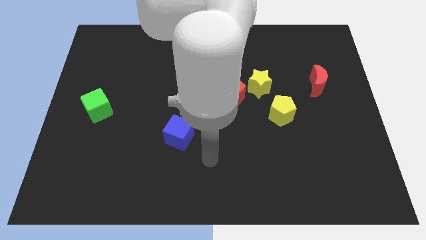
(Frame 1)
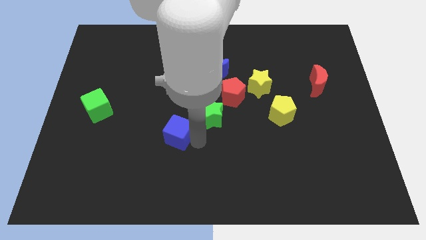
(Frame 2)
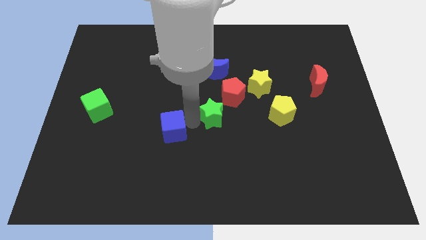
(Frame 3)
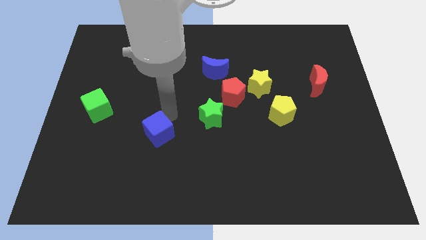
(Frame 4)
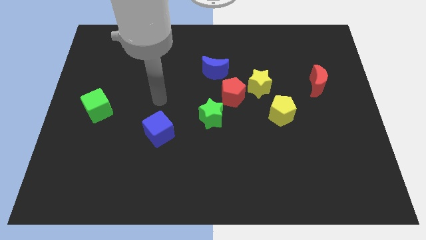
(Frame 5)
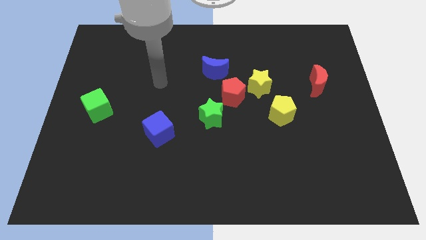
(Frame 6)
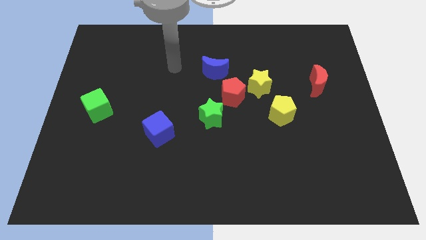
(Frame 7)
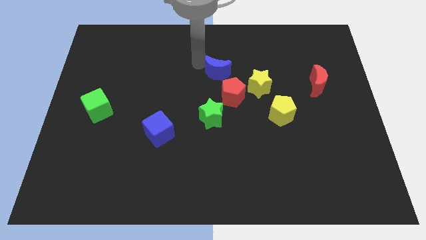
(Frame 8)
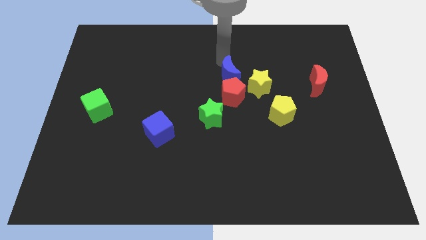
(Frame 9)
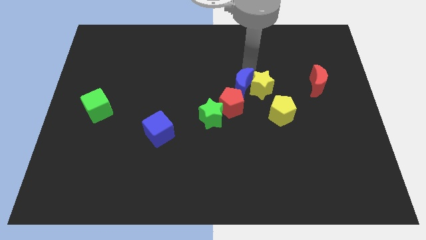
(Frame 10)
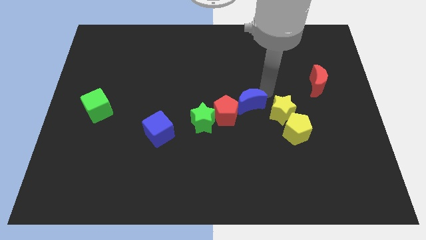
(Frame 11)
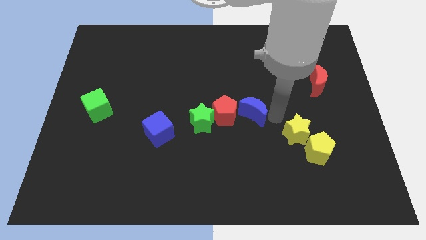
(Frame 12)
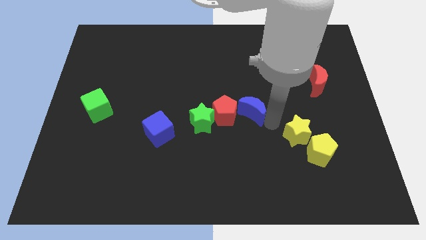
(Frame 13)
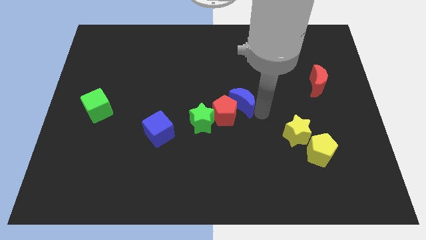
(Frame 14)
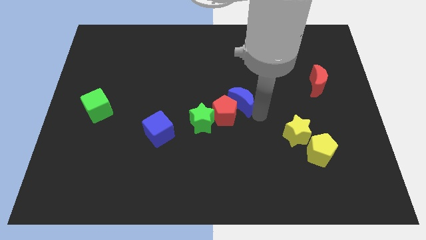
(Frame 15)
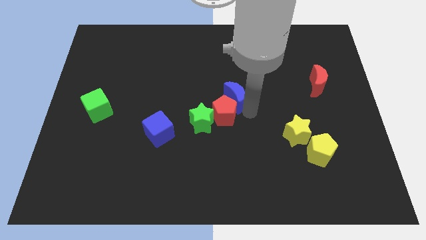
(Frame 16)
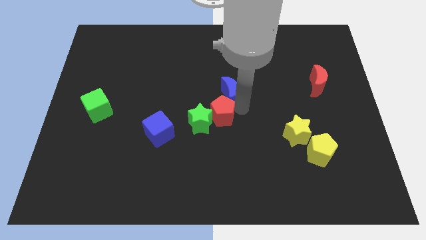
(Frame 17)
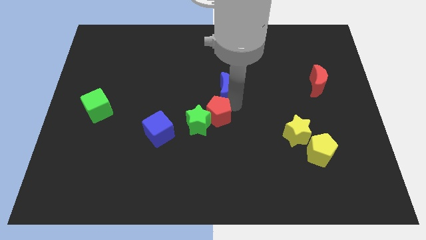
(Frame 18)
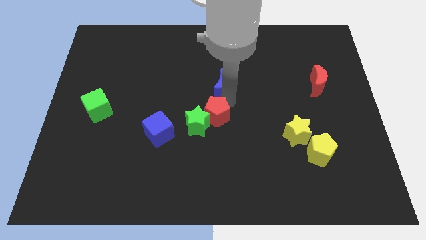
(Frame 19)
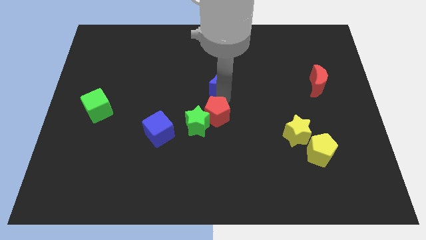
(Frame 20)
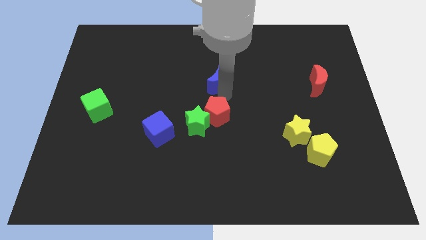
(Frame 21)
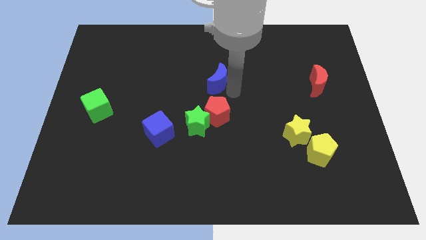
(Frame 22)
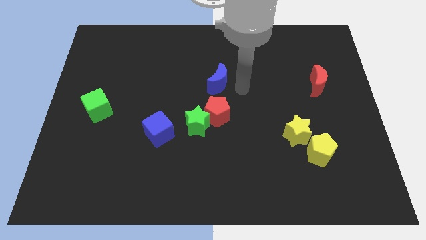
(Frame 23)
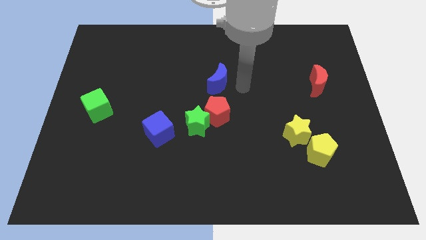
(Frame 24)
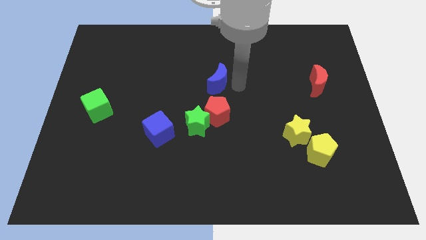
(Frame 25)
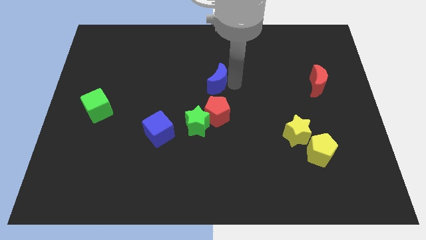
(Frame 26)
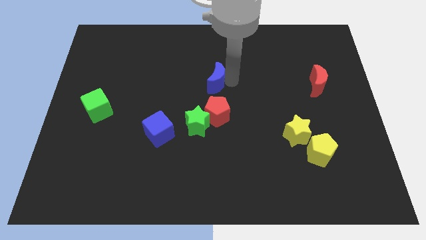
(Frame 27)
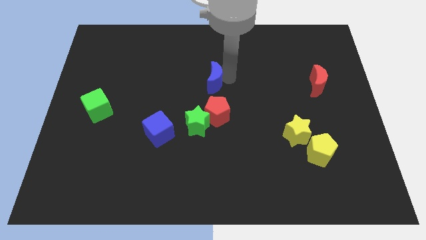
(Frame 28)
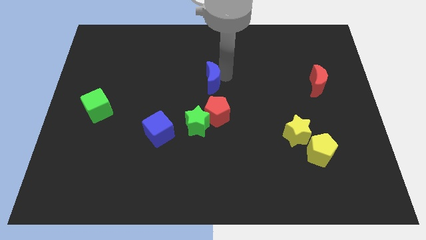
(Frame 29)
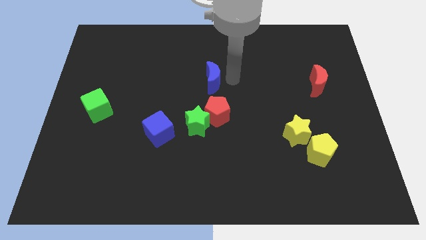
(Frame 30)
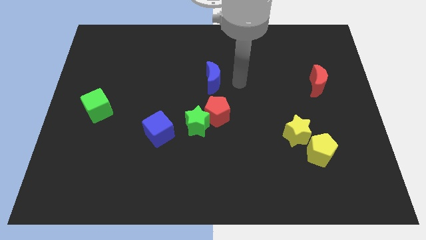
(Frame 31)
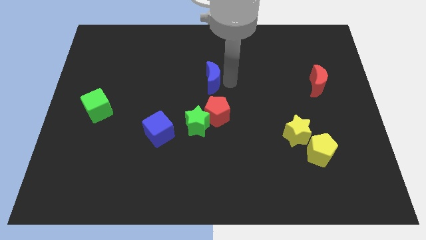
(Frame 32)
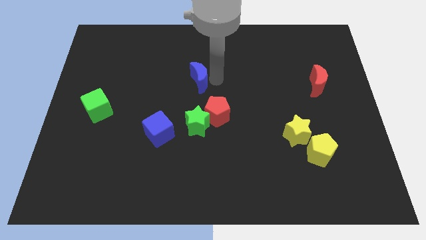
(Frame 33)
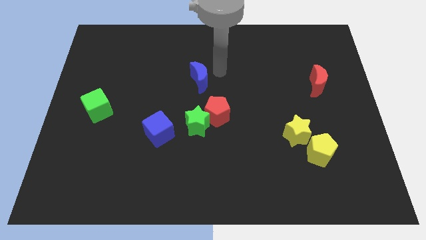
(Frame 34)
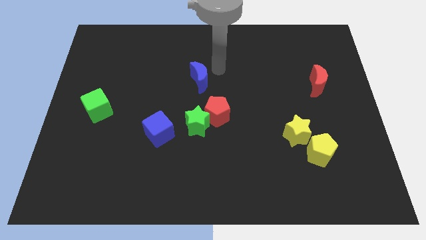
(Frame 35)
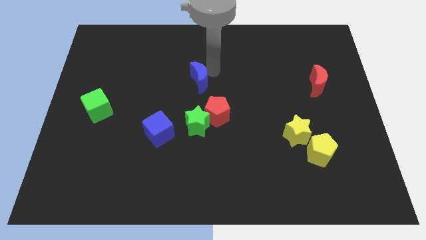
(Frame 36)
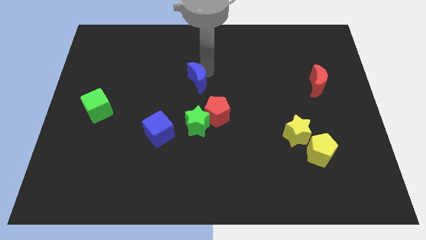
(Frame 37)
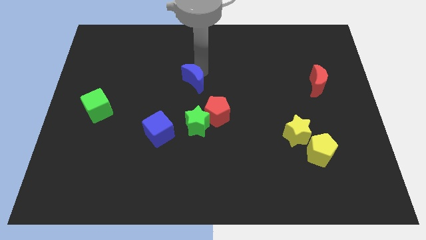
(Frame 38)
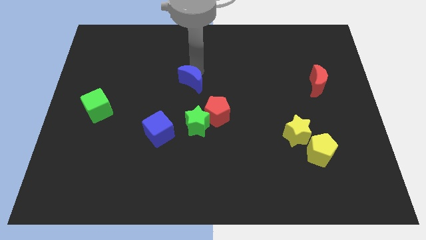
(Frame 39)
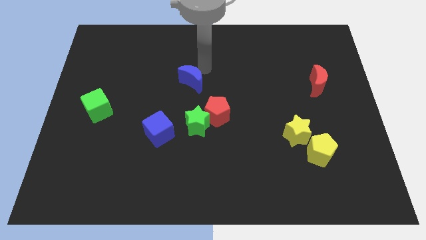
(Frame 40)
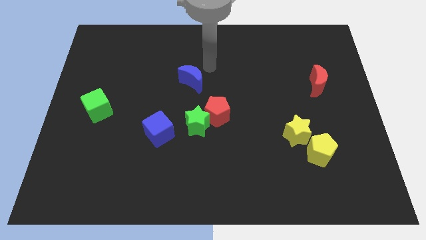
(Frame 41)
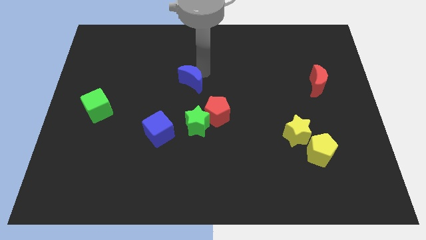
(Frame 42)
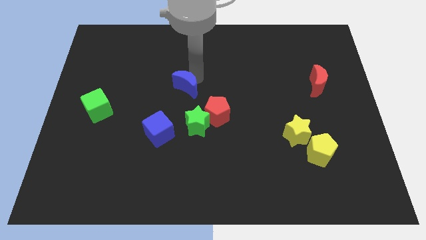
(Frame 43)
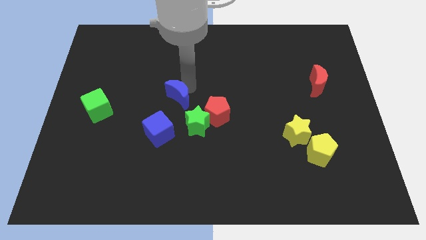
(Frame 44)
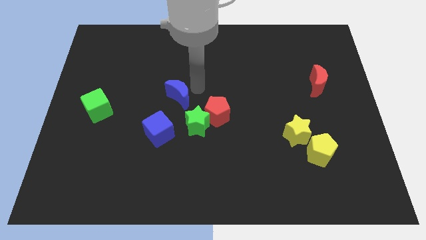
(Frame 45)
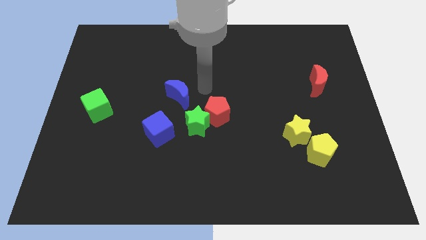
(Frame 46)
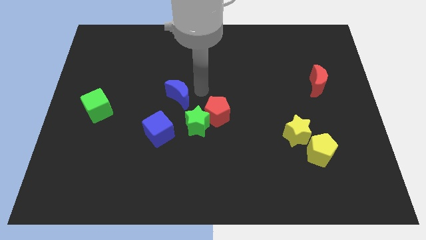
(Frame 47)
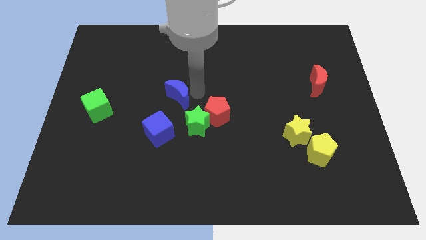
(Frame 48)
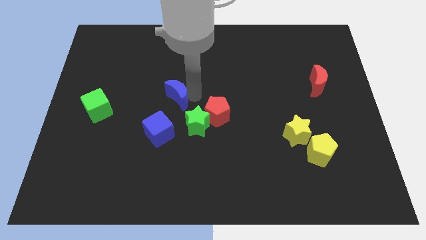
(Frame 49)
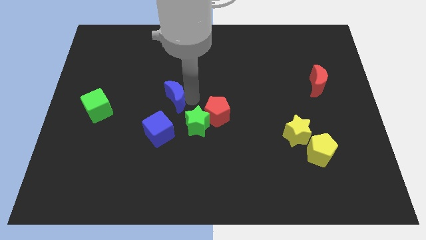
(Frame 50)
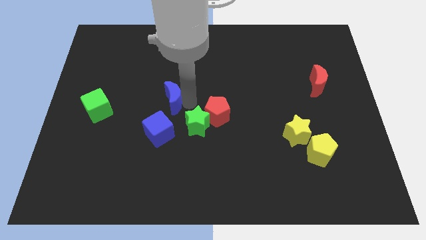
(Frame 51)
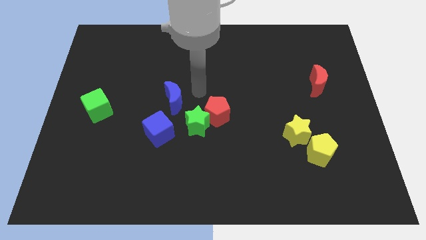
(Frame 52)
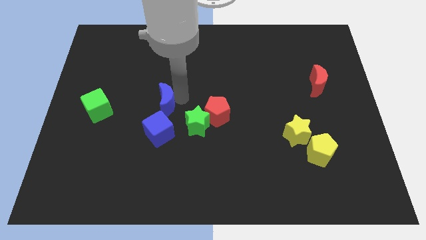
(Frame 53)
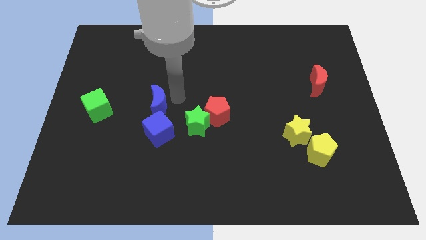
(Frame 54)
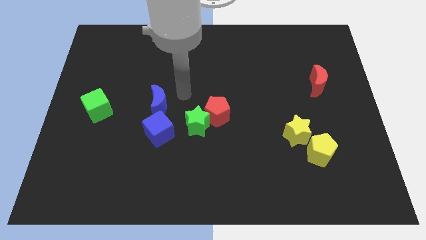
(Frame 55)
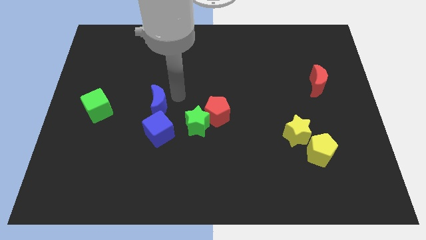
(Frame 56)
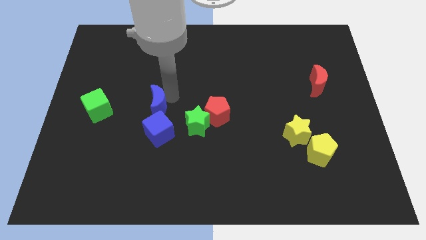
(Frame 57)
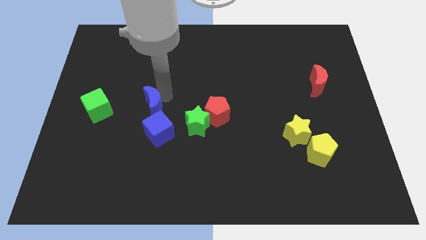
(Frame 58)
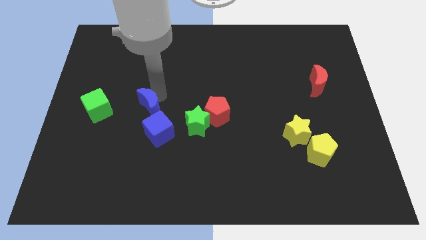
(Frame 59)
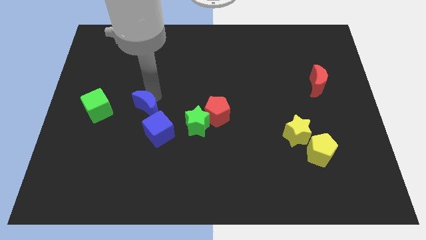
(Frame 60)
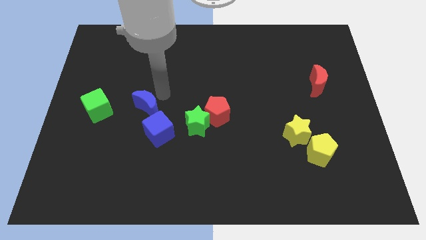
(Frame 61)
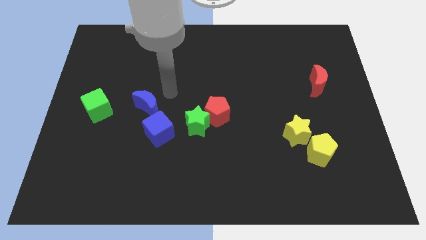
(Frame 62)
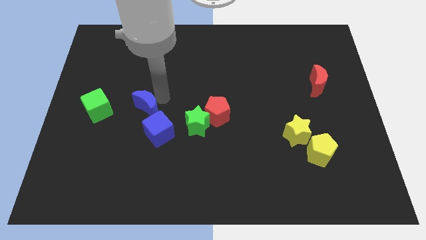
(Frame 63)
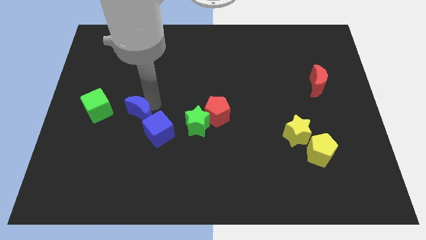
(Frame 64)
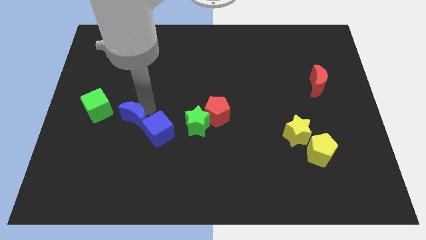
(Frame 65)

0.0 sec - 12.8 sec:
push the blue moon to the bottom right of the green cube

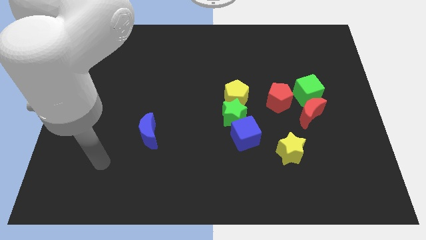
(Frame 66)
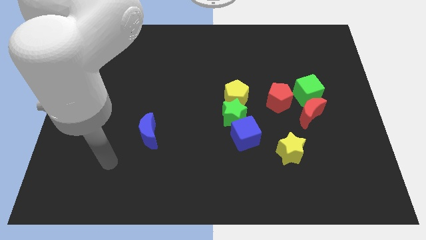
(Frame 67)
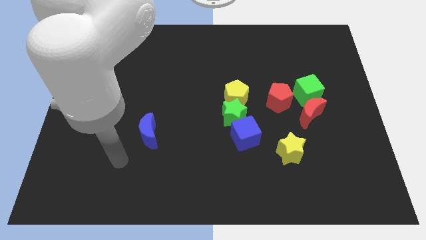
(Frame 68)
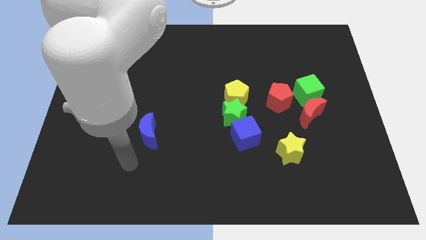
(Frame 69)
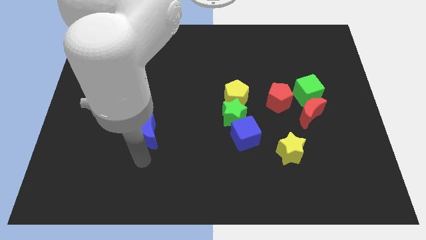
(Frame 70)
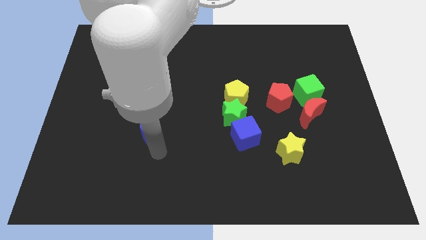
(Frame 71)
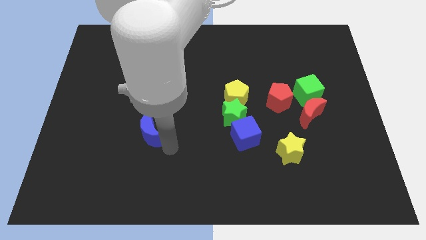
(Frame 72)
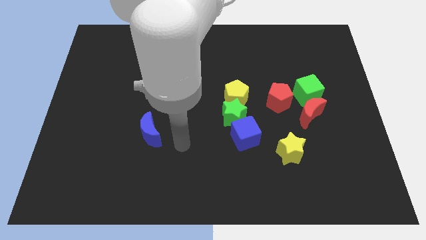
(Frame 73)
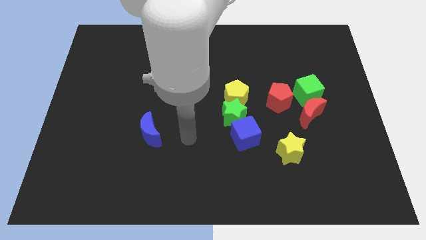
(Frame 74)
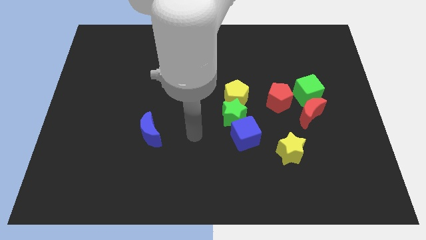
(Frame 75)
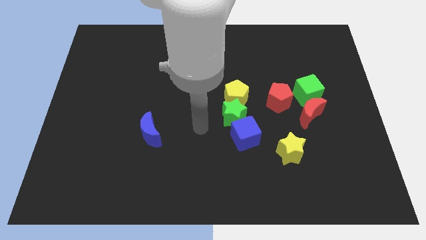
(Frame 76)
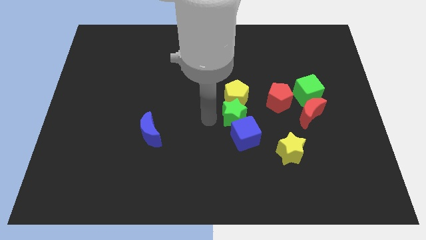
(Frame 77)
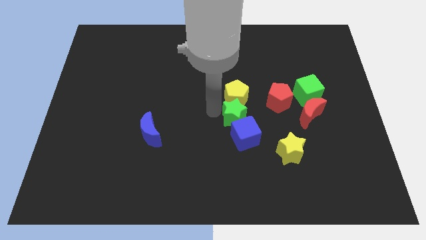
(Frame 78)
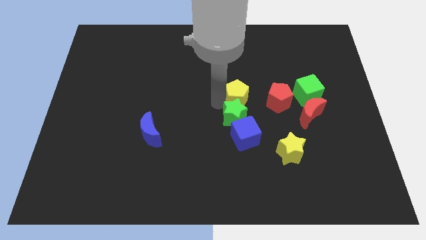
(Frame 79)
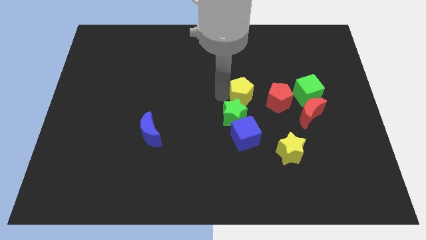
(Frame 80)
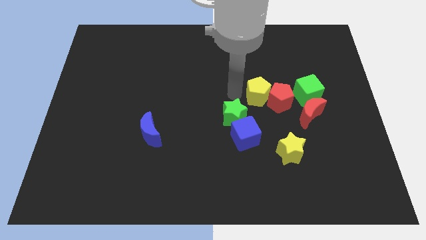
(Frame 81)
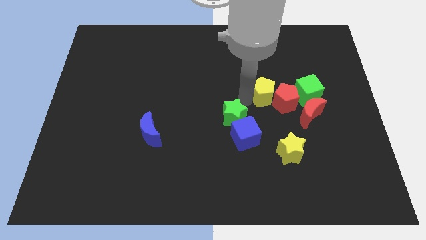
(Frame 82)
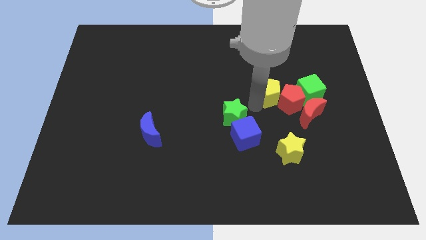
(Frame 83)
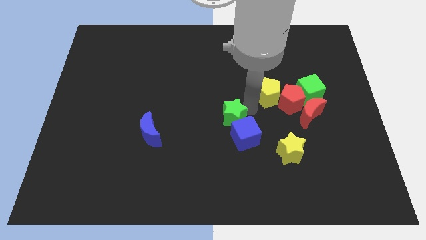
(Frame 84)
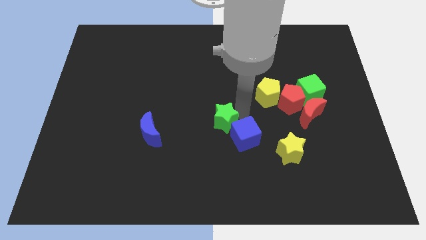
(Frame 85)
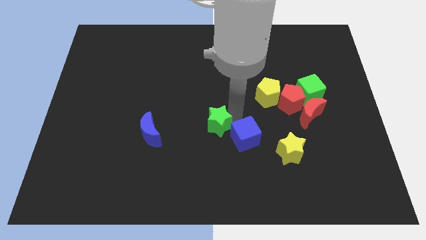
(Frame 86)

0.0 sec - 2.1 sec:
put the green star right of the blue moon
